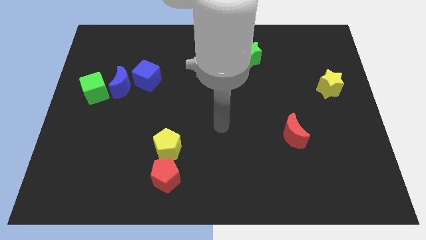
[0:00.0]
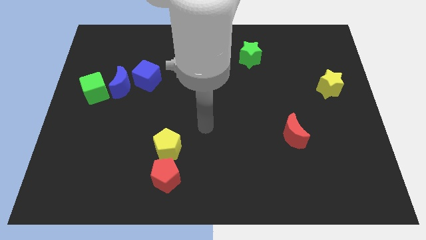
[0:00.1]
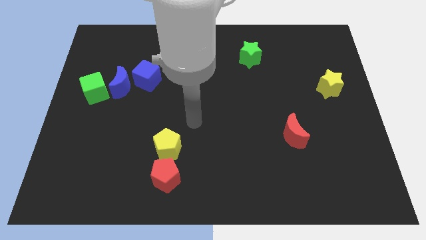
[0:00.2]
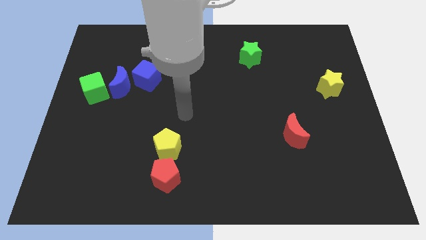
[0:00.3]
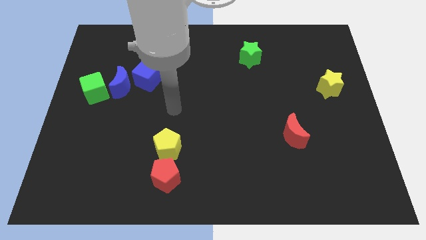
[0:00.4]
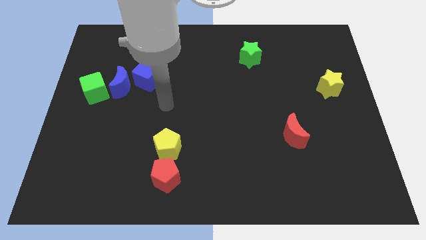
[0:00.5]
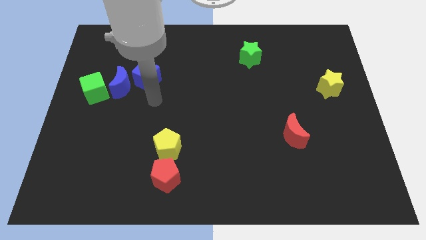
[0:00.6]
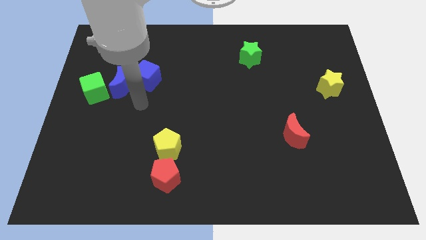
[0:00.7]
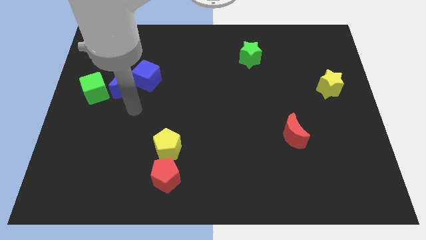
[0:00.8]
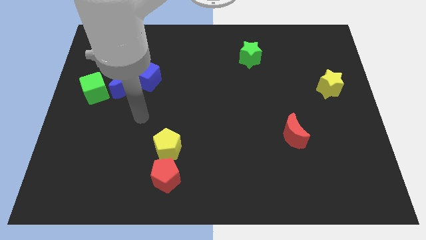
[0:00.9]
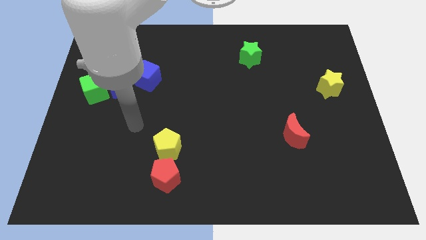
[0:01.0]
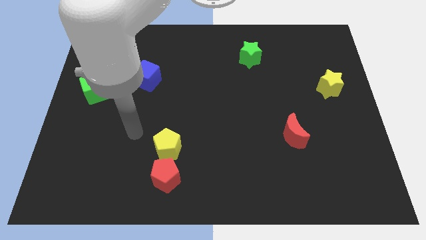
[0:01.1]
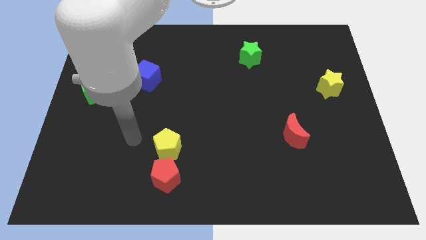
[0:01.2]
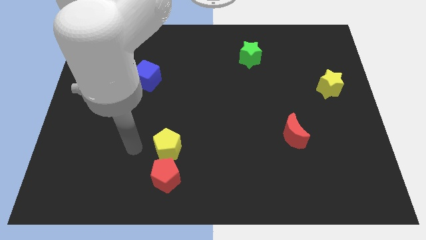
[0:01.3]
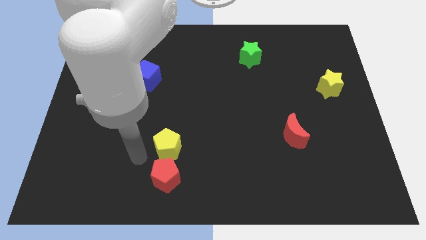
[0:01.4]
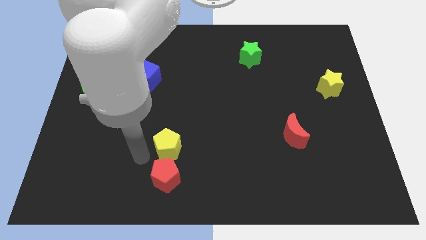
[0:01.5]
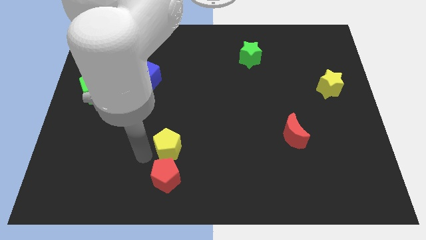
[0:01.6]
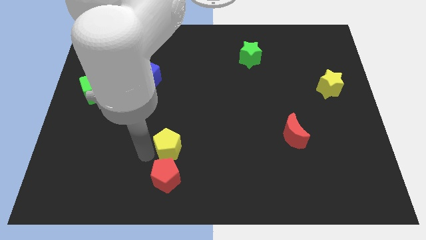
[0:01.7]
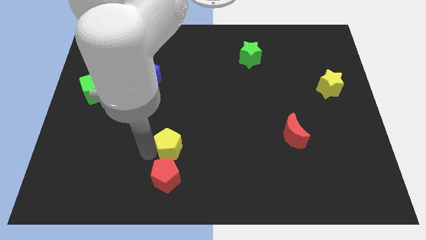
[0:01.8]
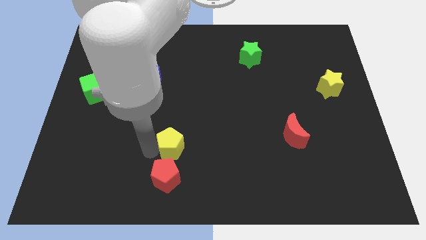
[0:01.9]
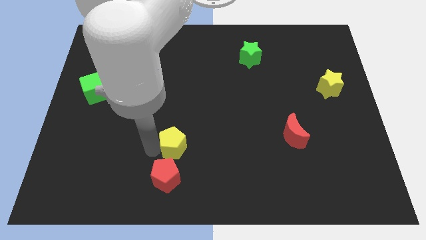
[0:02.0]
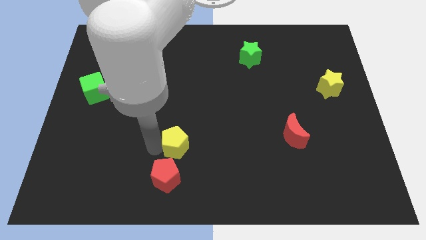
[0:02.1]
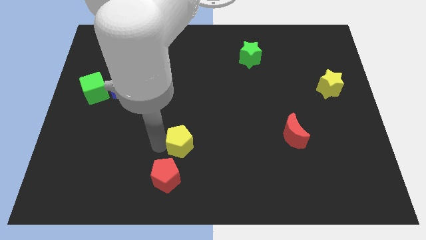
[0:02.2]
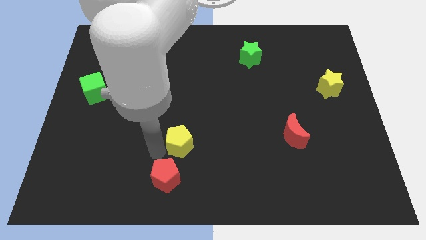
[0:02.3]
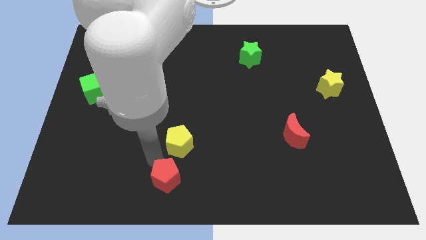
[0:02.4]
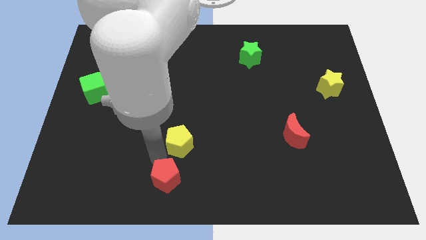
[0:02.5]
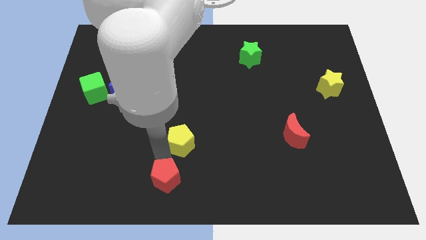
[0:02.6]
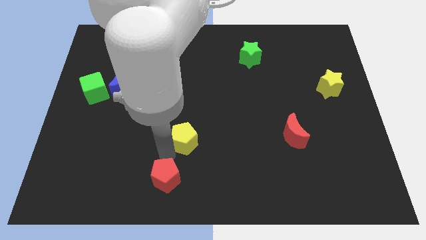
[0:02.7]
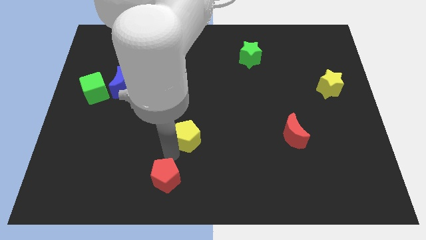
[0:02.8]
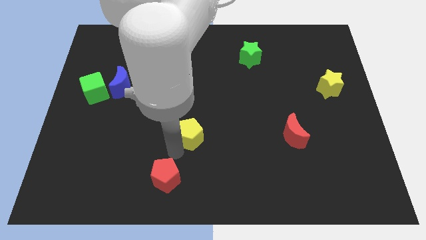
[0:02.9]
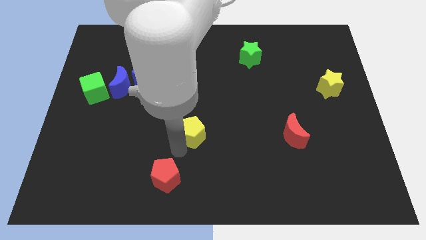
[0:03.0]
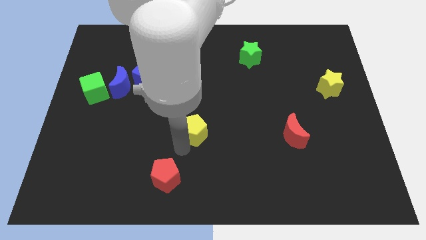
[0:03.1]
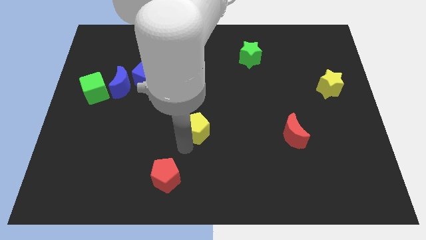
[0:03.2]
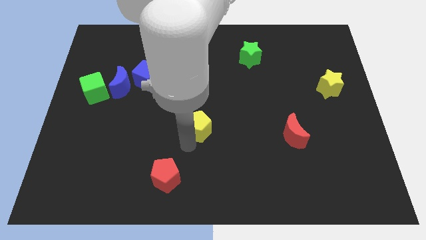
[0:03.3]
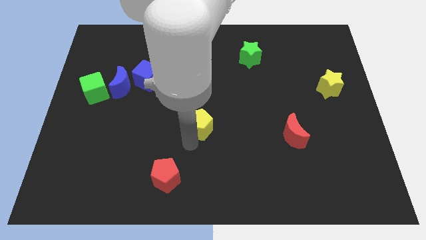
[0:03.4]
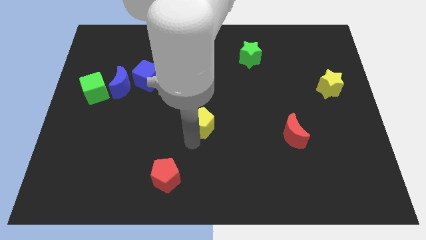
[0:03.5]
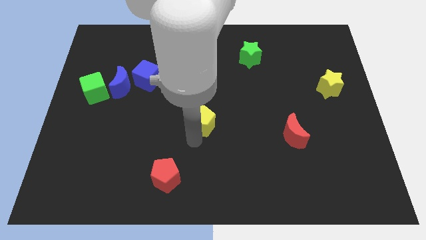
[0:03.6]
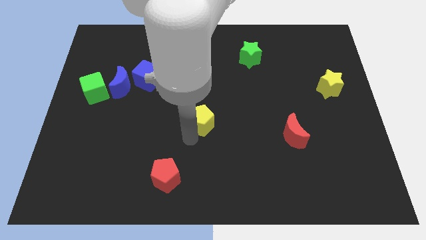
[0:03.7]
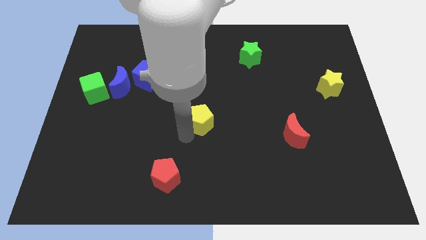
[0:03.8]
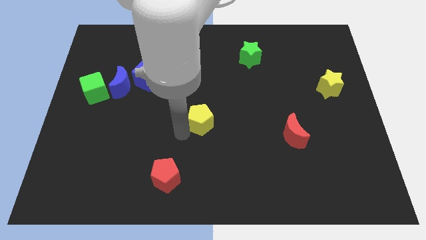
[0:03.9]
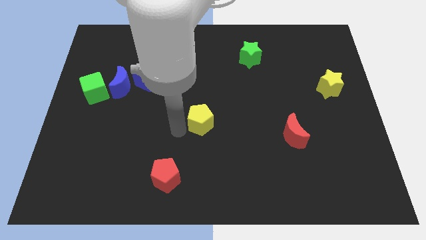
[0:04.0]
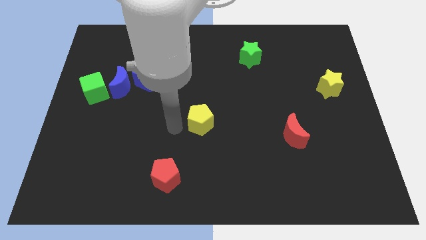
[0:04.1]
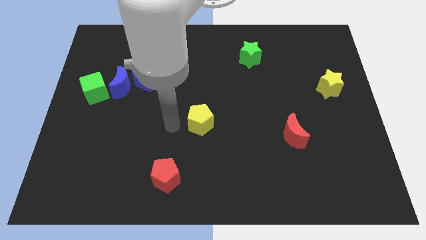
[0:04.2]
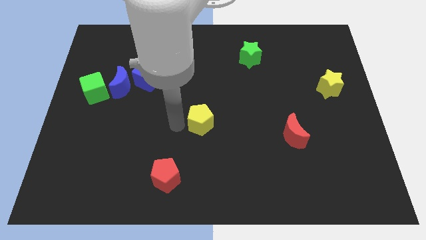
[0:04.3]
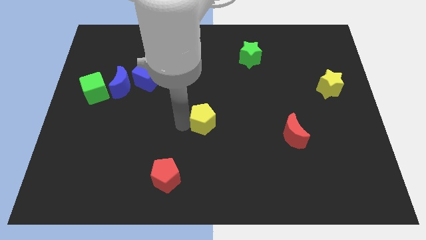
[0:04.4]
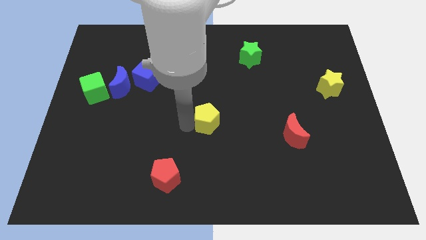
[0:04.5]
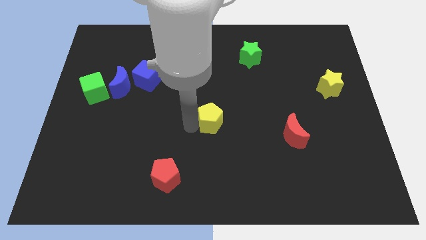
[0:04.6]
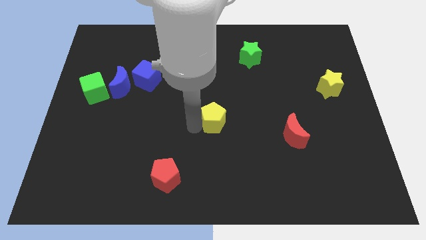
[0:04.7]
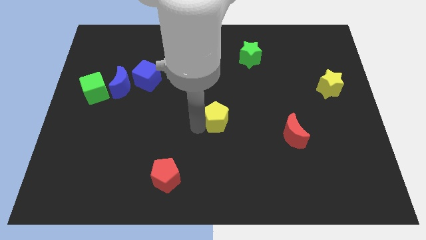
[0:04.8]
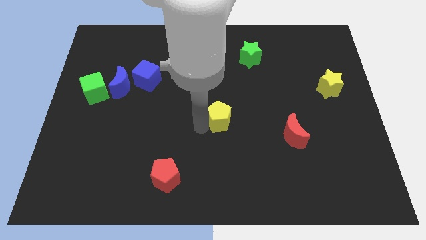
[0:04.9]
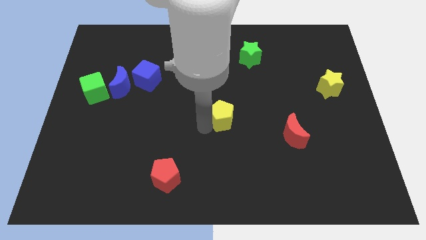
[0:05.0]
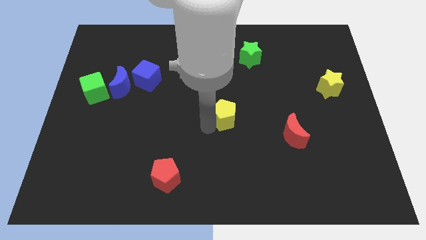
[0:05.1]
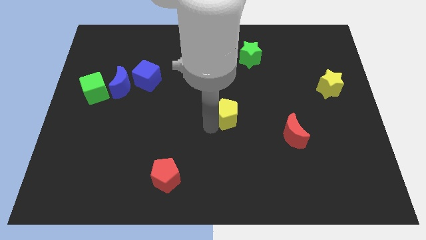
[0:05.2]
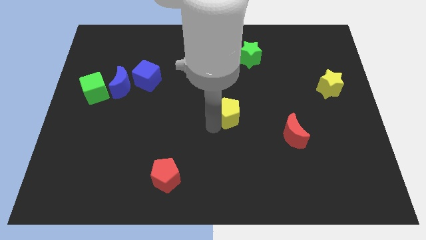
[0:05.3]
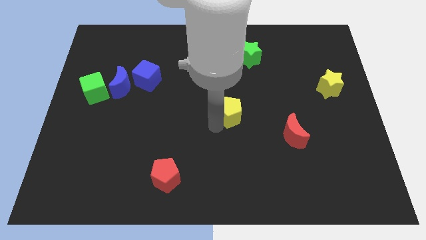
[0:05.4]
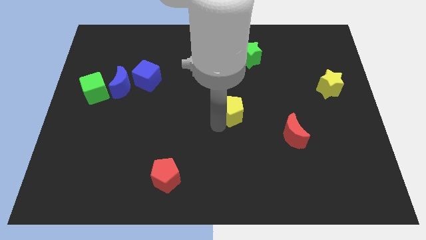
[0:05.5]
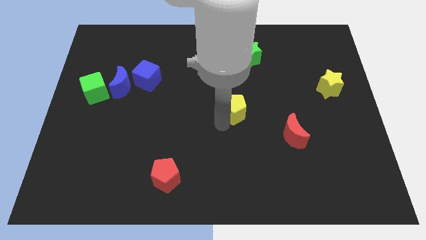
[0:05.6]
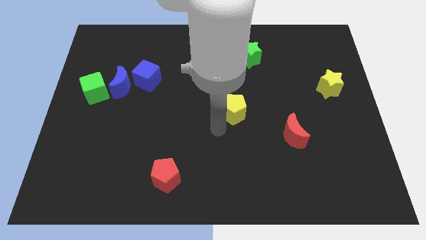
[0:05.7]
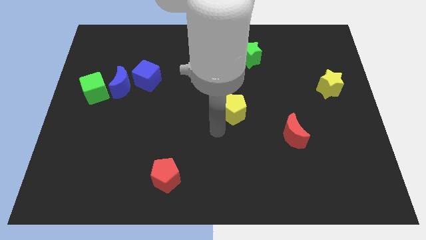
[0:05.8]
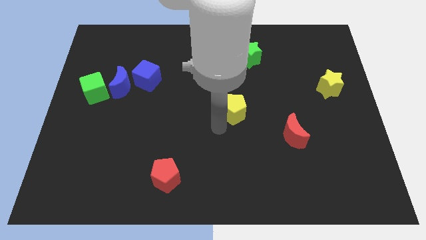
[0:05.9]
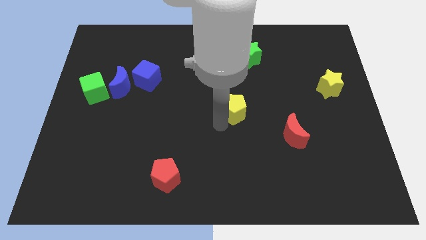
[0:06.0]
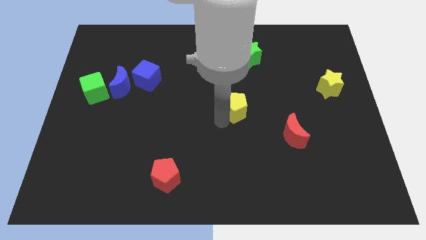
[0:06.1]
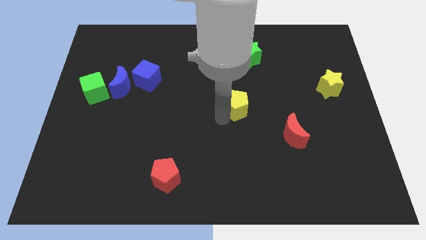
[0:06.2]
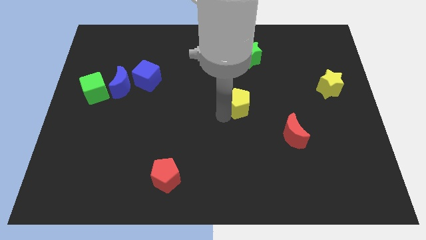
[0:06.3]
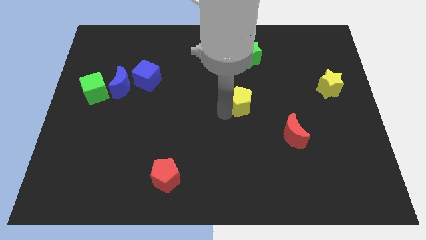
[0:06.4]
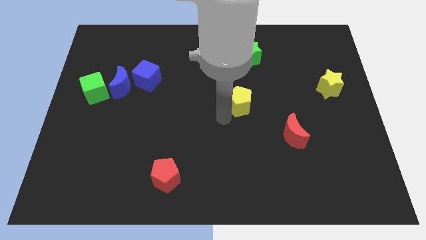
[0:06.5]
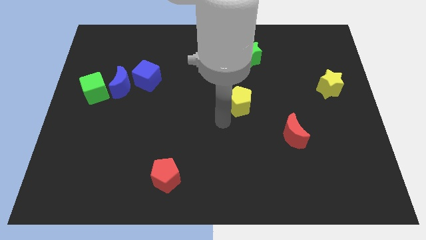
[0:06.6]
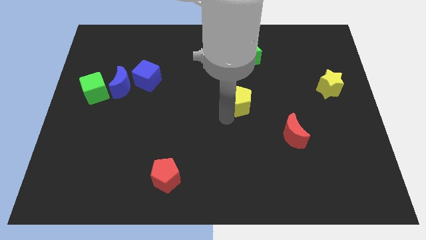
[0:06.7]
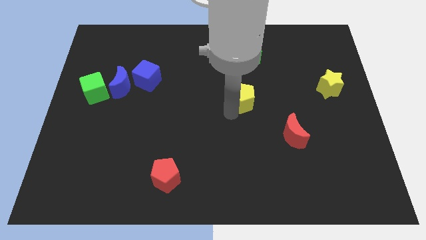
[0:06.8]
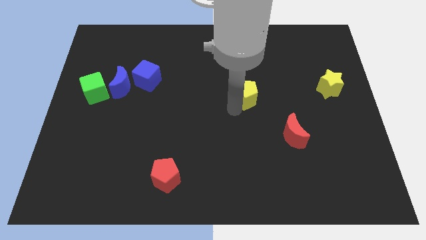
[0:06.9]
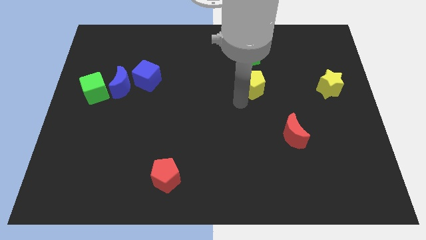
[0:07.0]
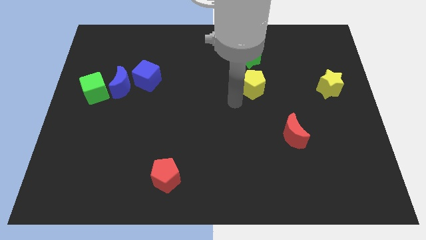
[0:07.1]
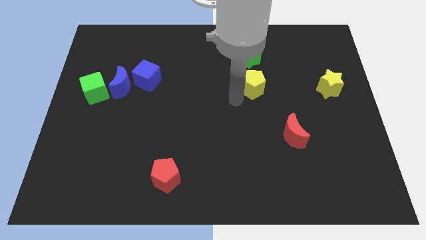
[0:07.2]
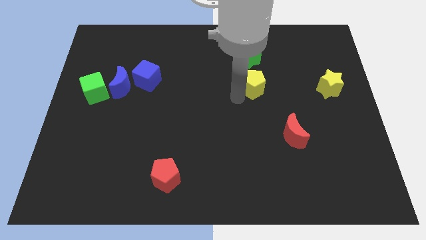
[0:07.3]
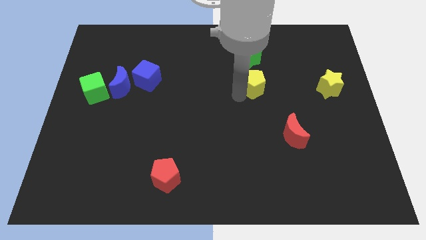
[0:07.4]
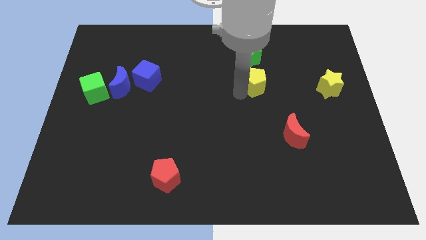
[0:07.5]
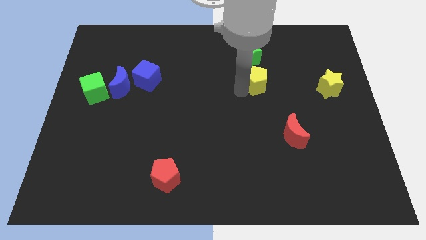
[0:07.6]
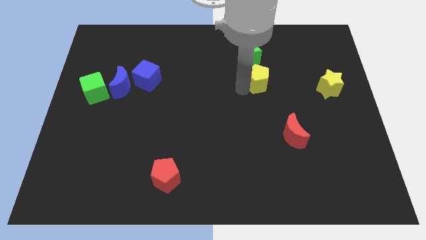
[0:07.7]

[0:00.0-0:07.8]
slide the yellow pentagon diagonally down and to the right of the green star
